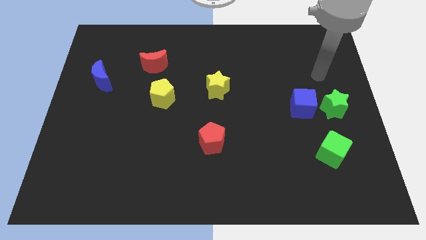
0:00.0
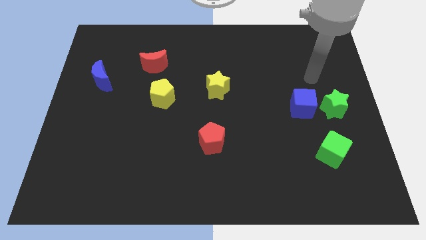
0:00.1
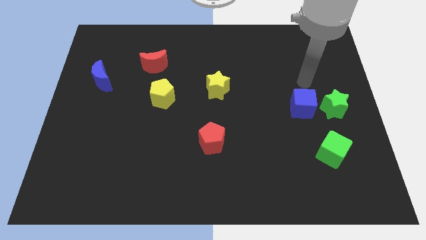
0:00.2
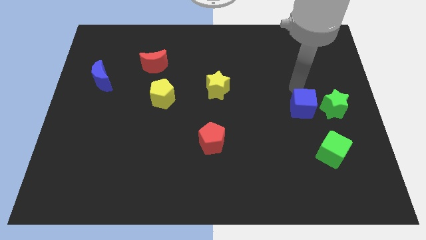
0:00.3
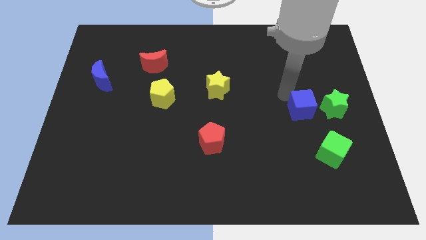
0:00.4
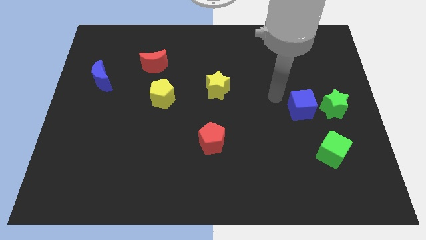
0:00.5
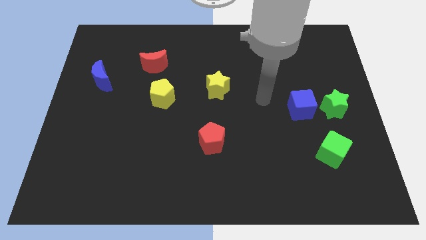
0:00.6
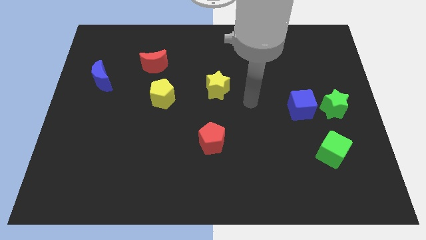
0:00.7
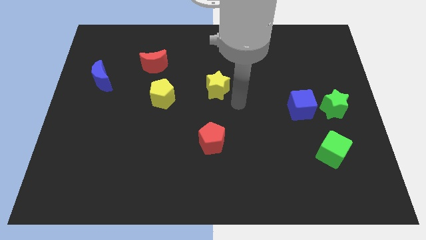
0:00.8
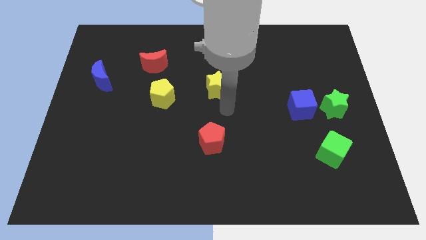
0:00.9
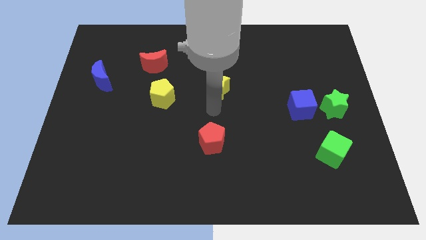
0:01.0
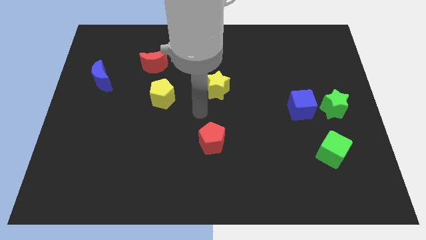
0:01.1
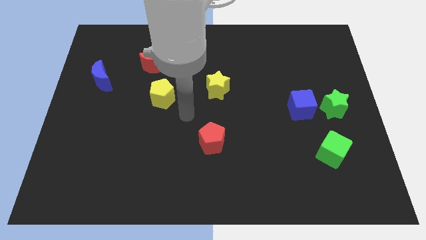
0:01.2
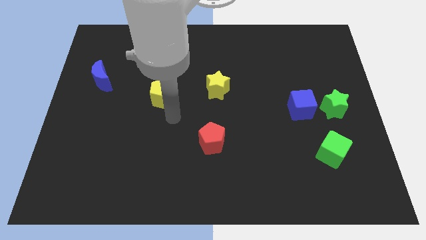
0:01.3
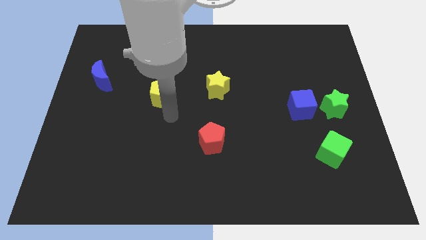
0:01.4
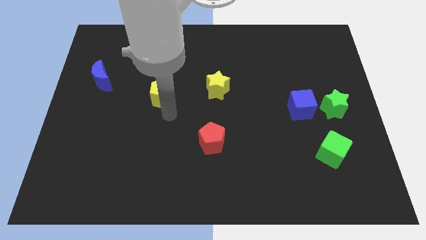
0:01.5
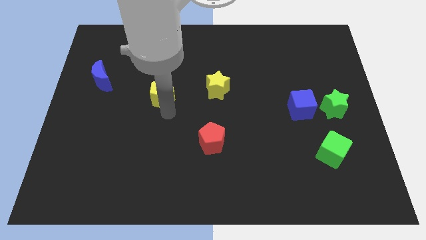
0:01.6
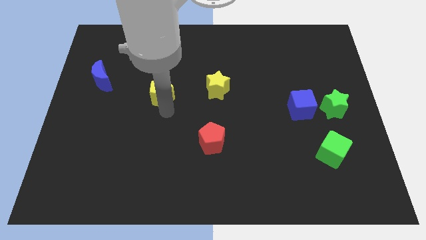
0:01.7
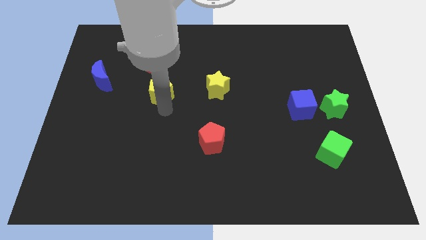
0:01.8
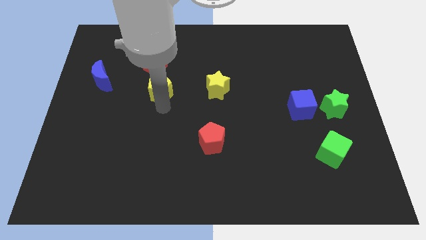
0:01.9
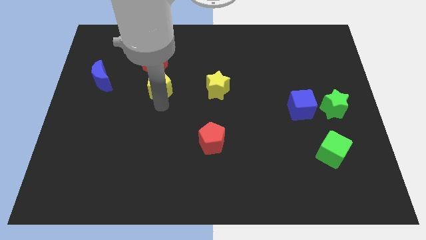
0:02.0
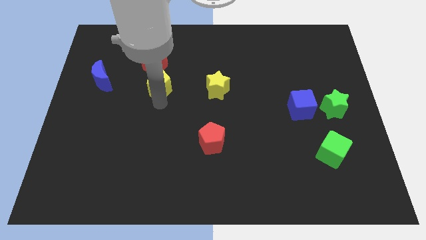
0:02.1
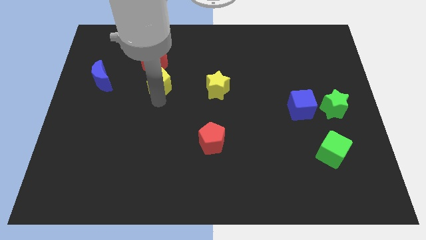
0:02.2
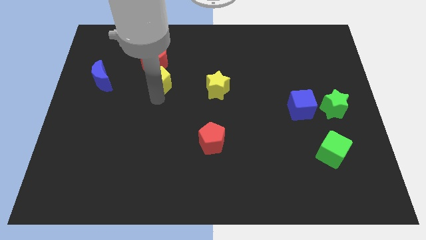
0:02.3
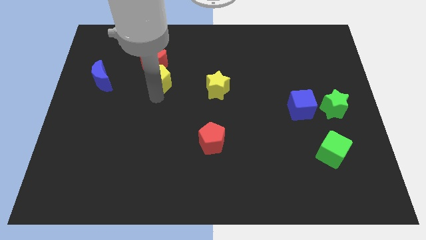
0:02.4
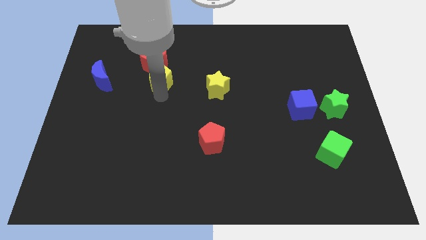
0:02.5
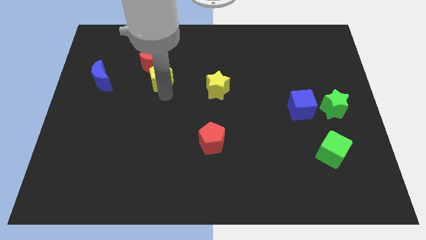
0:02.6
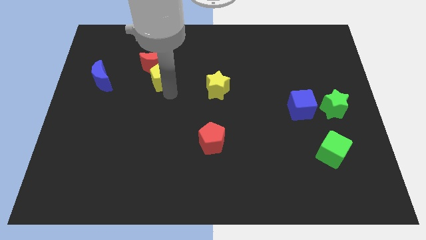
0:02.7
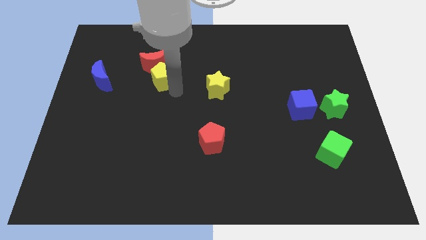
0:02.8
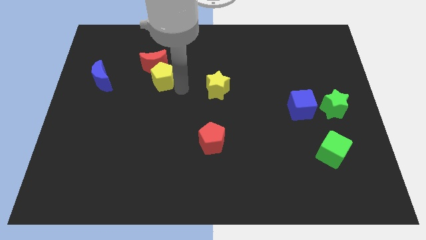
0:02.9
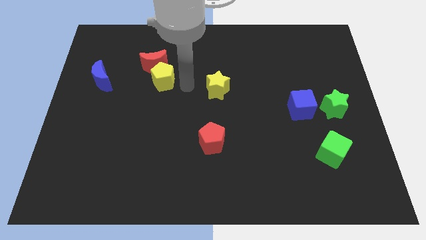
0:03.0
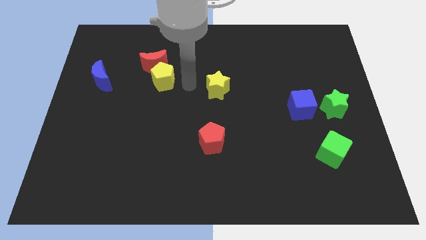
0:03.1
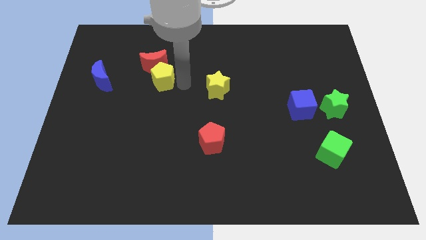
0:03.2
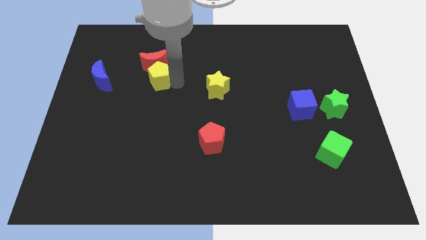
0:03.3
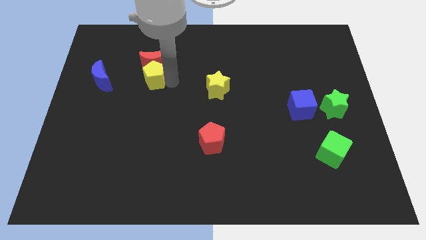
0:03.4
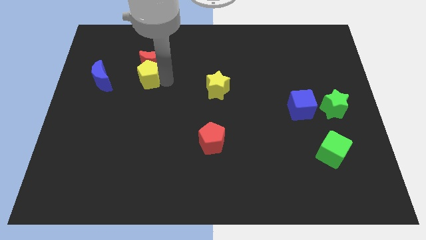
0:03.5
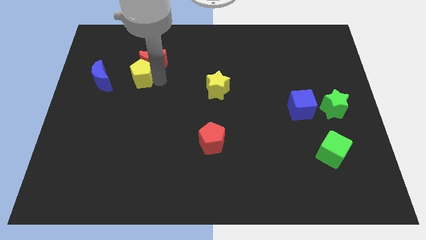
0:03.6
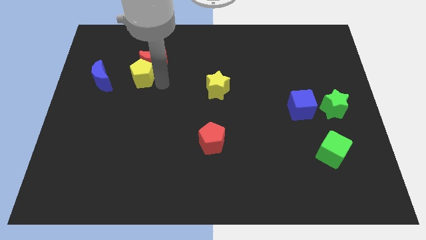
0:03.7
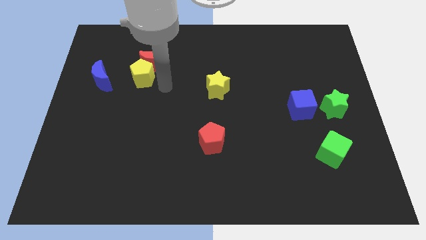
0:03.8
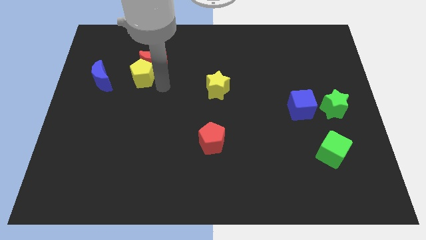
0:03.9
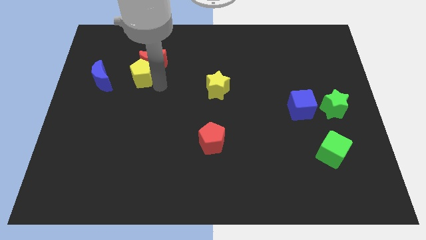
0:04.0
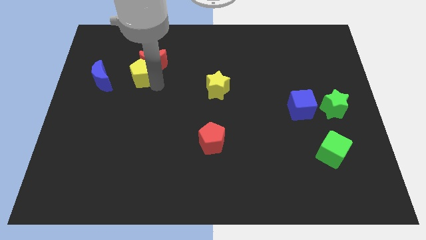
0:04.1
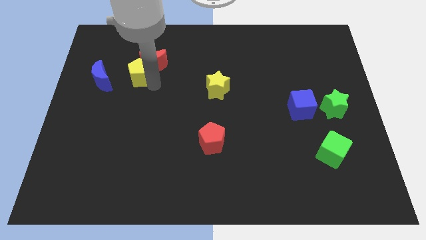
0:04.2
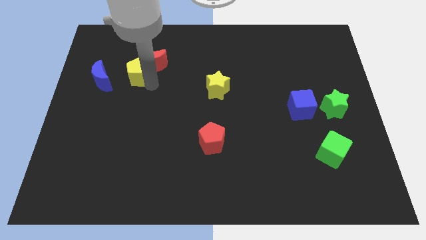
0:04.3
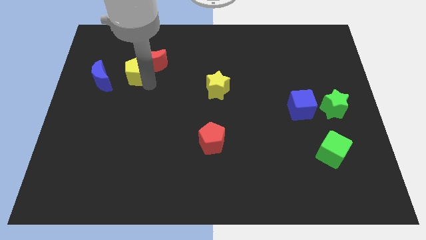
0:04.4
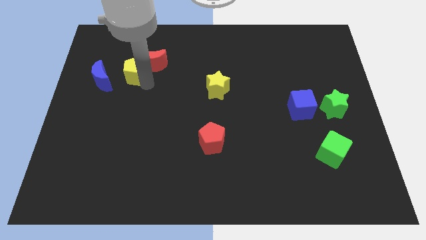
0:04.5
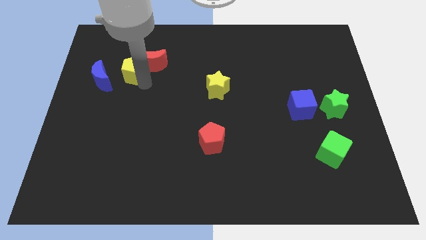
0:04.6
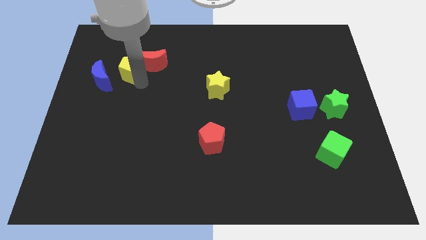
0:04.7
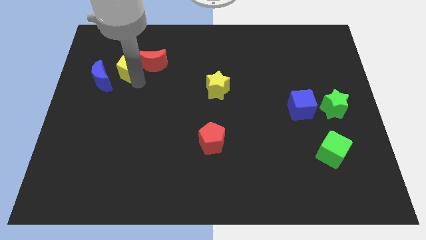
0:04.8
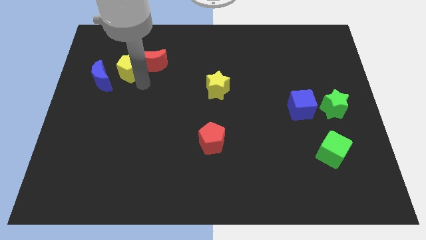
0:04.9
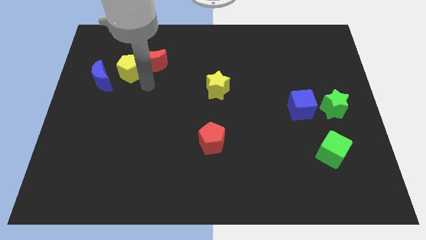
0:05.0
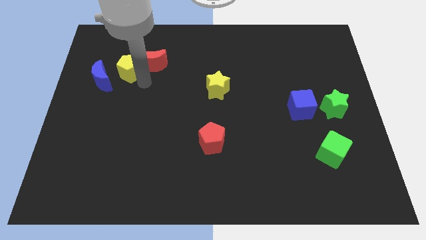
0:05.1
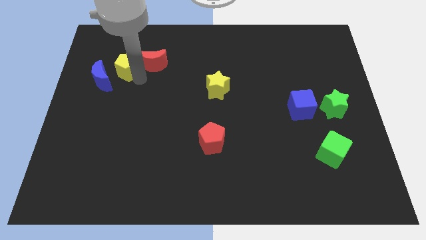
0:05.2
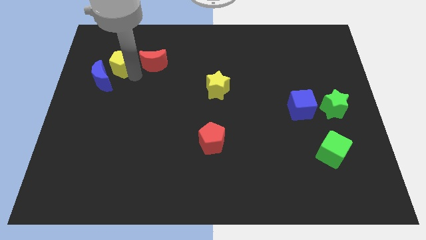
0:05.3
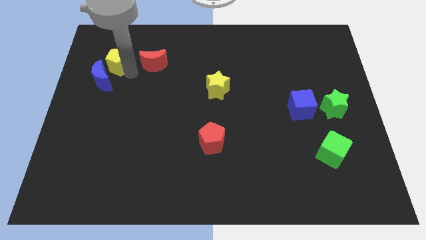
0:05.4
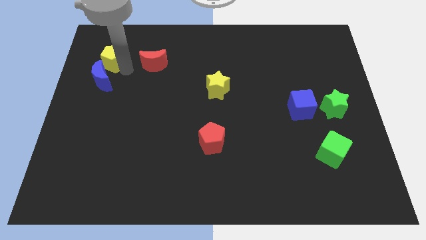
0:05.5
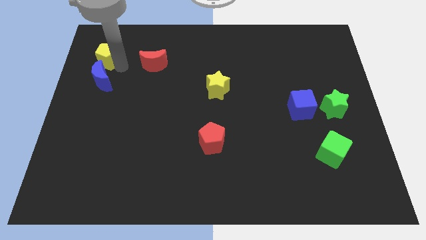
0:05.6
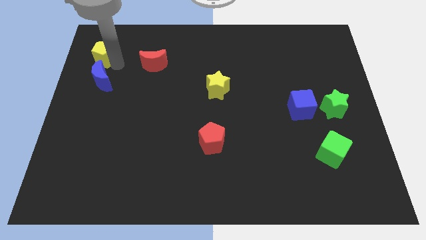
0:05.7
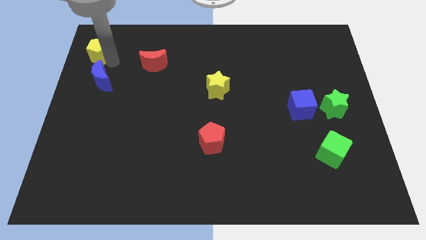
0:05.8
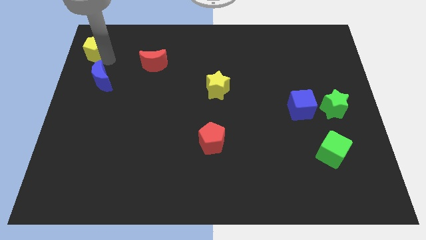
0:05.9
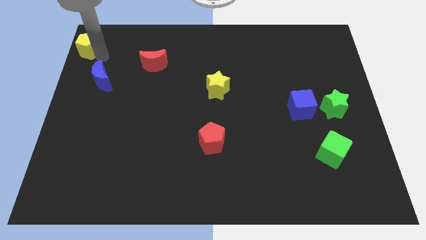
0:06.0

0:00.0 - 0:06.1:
slide the yellow pentagon to the upper left corner
